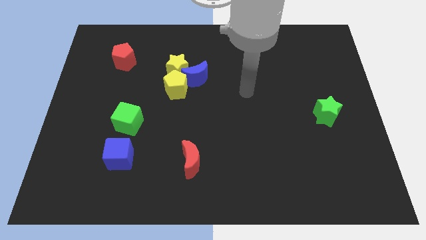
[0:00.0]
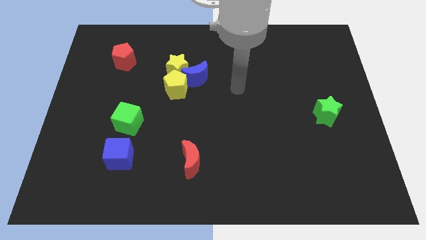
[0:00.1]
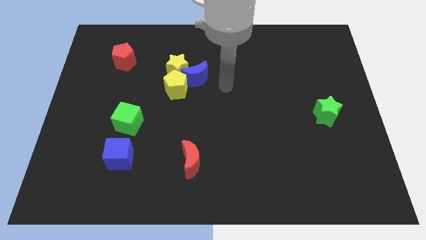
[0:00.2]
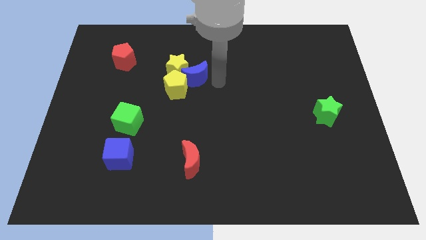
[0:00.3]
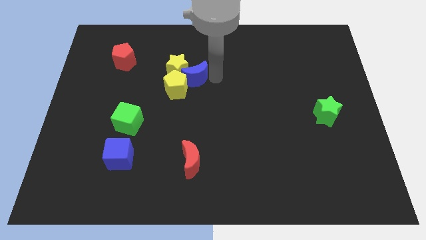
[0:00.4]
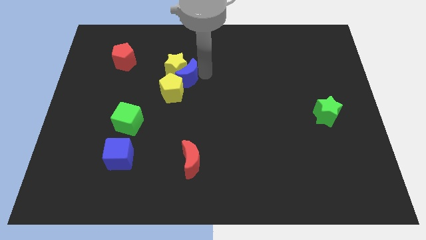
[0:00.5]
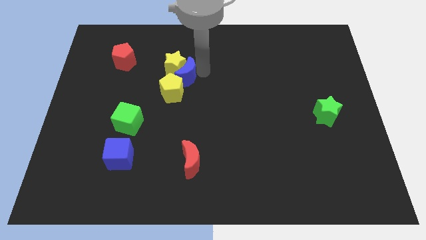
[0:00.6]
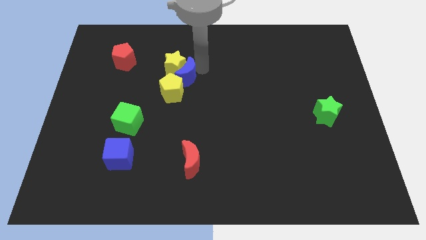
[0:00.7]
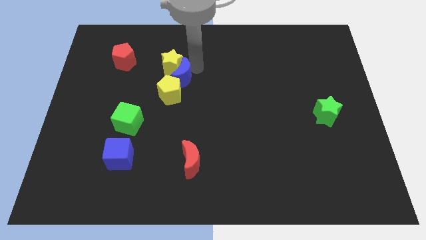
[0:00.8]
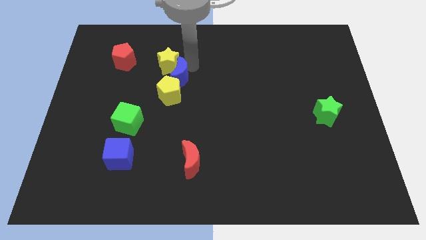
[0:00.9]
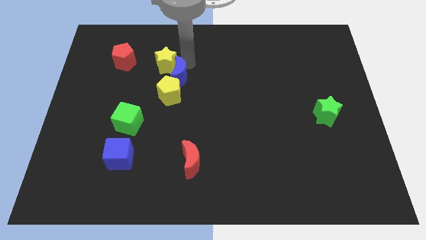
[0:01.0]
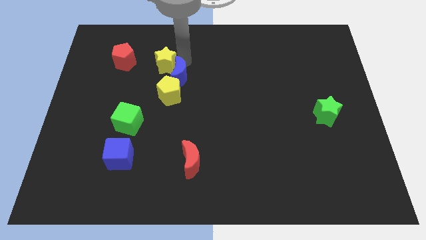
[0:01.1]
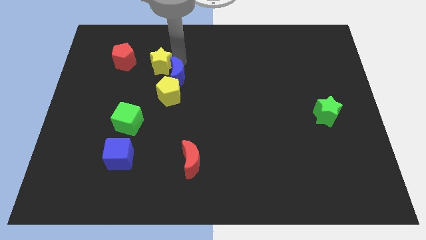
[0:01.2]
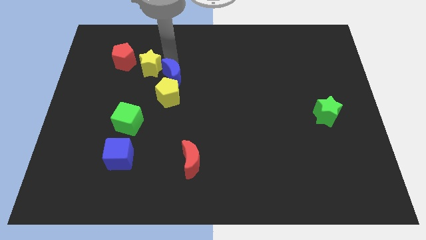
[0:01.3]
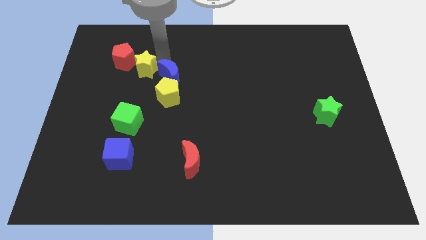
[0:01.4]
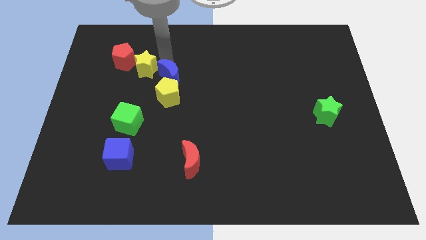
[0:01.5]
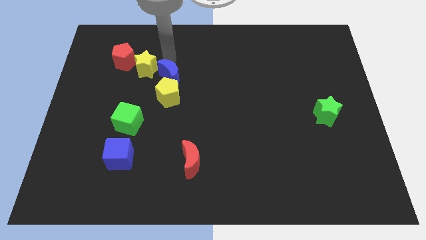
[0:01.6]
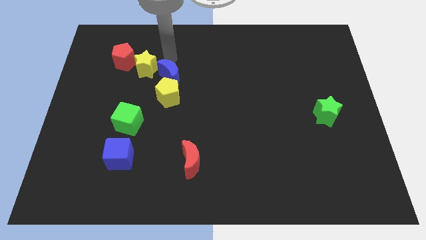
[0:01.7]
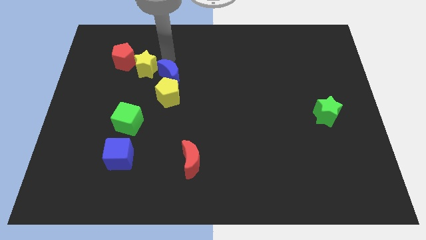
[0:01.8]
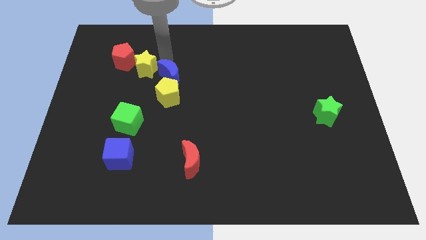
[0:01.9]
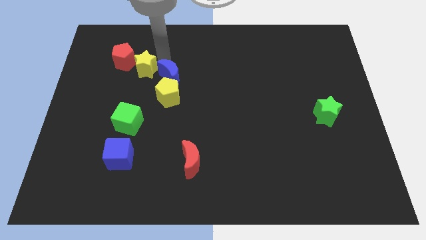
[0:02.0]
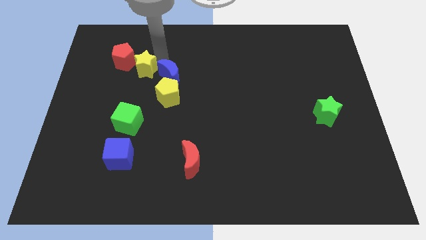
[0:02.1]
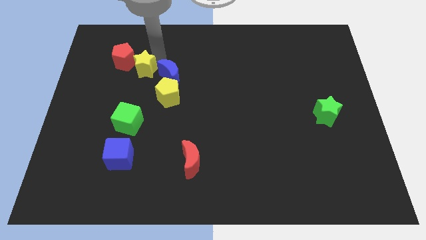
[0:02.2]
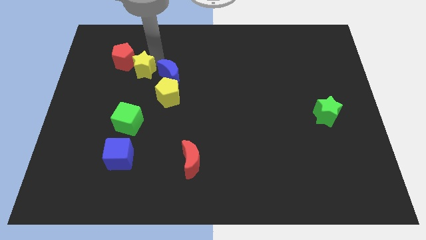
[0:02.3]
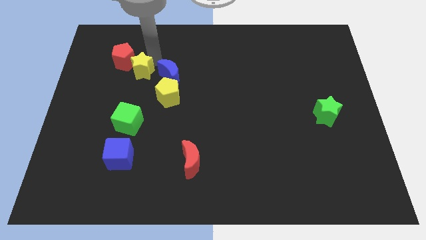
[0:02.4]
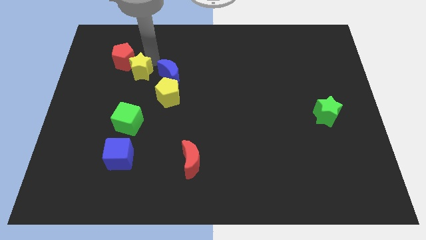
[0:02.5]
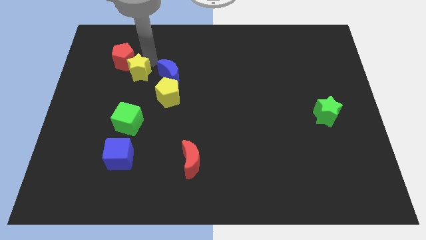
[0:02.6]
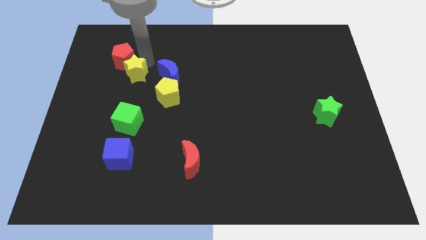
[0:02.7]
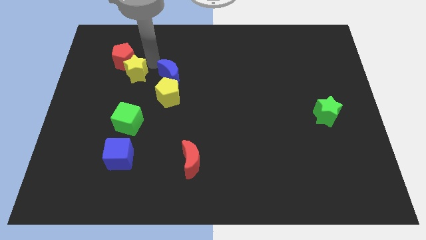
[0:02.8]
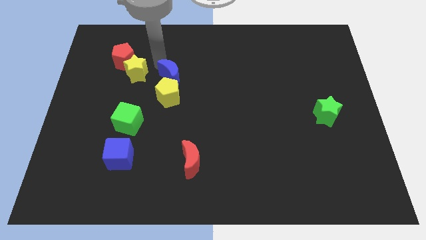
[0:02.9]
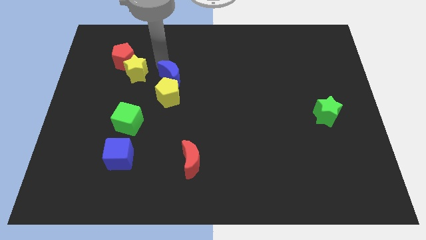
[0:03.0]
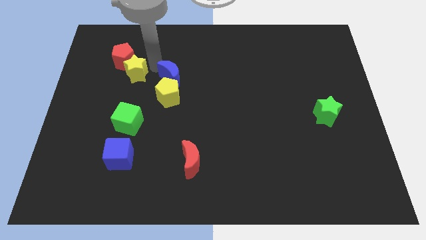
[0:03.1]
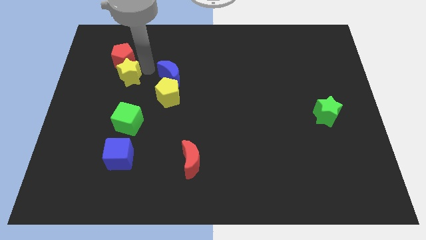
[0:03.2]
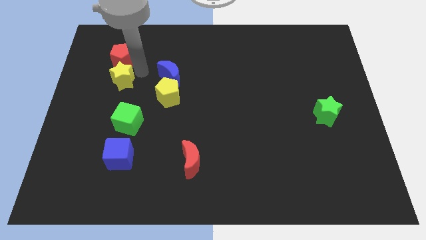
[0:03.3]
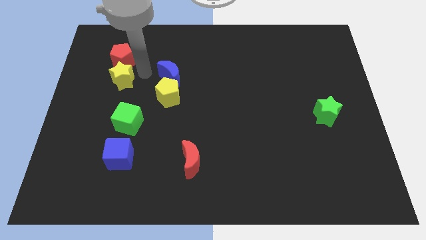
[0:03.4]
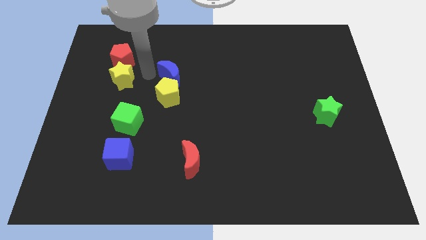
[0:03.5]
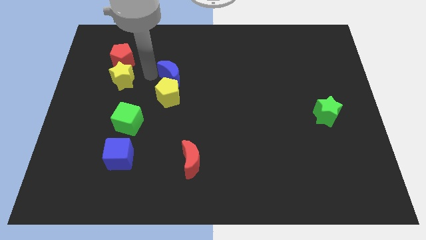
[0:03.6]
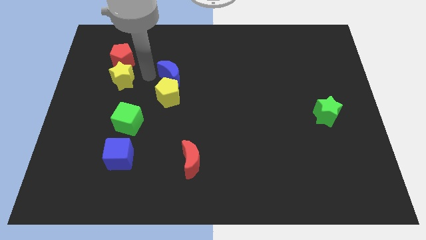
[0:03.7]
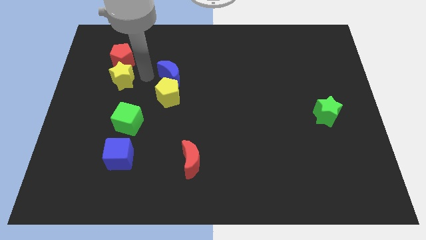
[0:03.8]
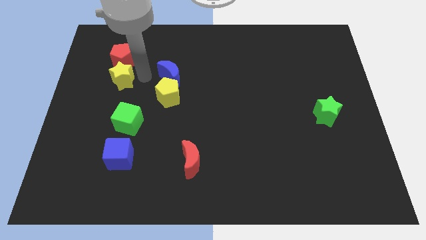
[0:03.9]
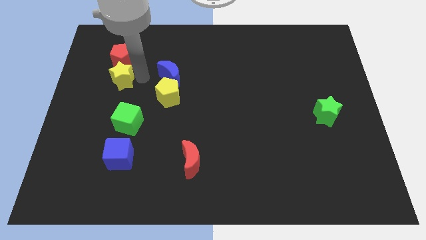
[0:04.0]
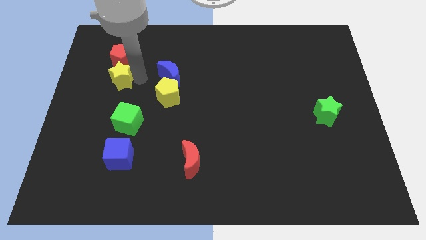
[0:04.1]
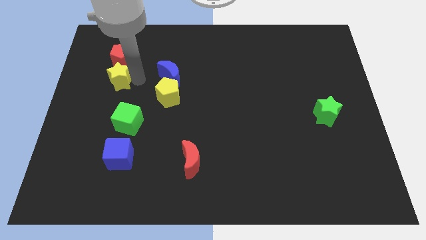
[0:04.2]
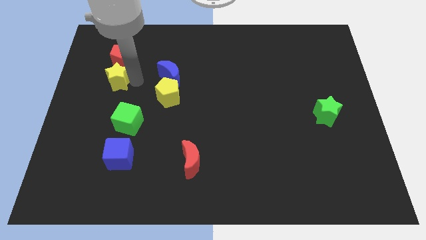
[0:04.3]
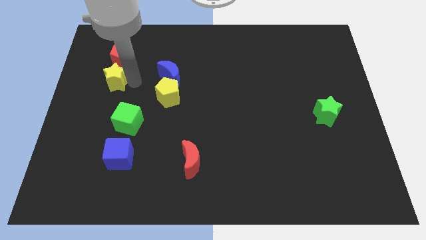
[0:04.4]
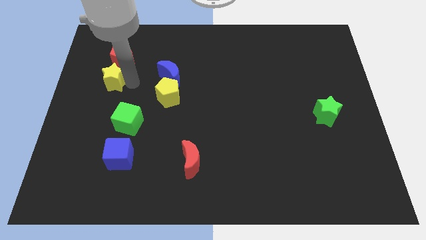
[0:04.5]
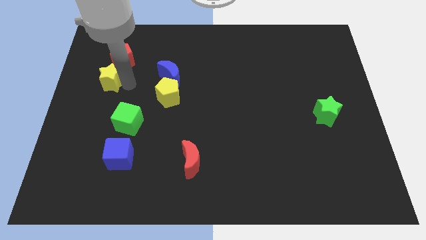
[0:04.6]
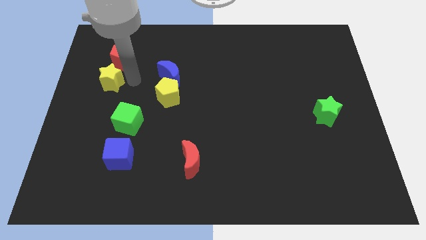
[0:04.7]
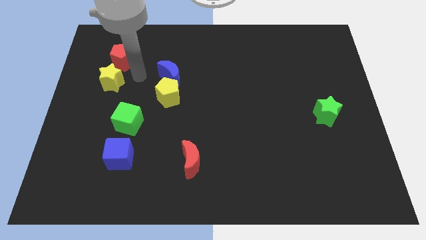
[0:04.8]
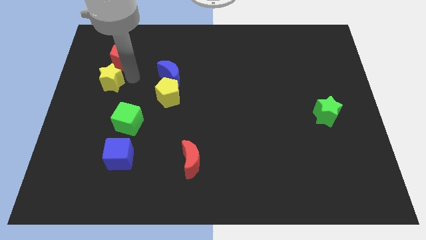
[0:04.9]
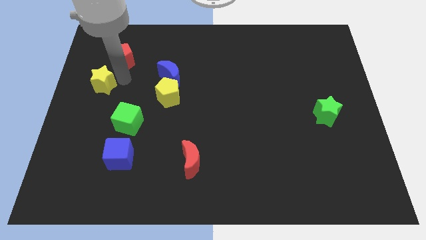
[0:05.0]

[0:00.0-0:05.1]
push the yellow star to the left side of the board

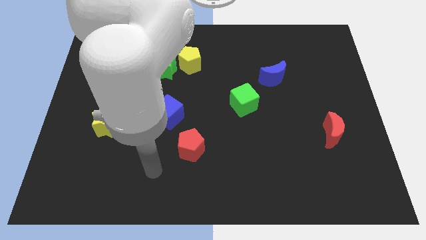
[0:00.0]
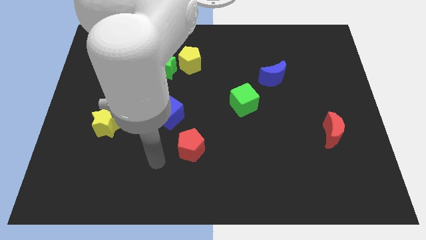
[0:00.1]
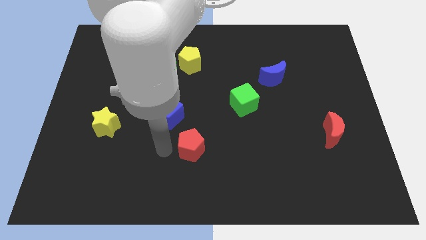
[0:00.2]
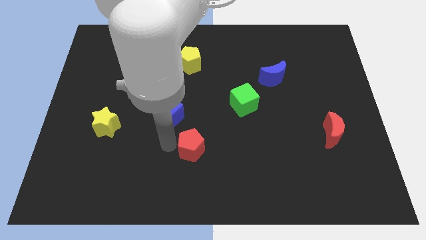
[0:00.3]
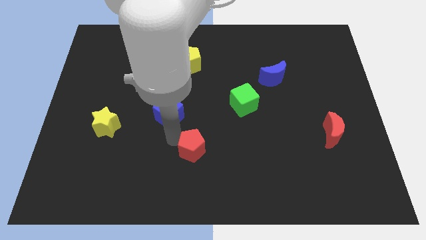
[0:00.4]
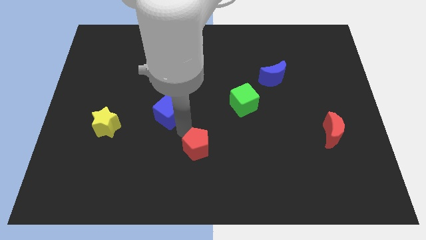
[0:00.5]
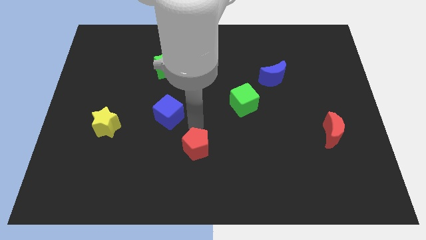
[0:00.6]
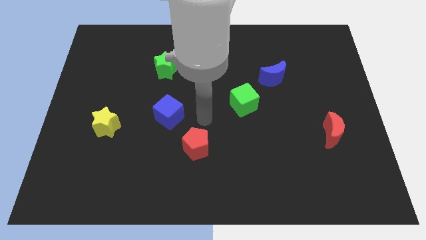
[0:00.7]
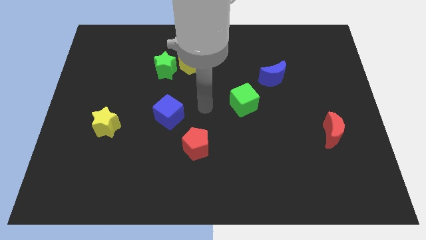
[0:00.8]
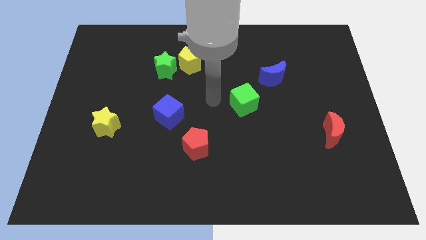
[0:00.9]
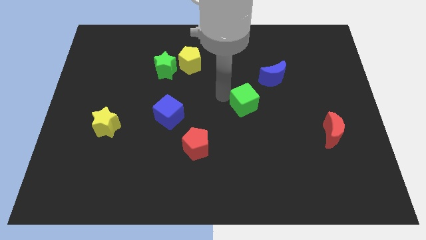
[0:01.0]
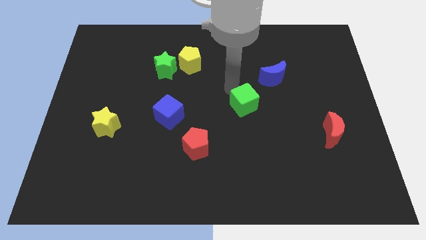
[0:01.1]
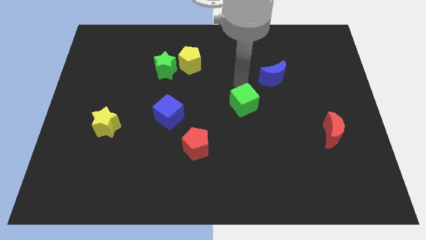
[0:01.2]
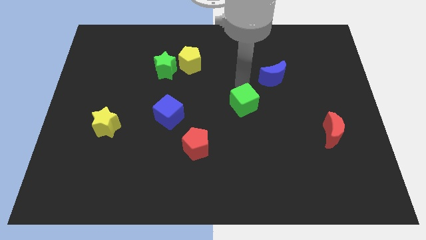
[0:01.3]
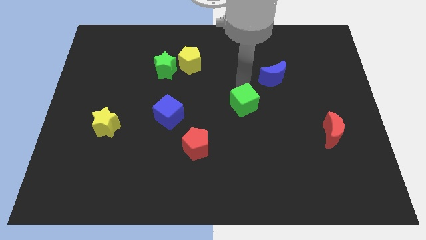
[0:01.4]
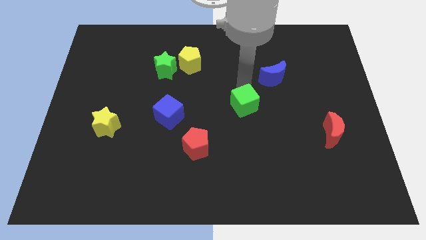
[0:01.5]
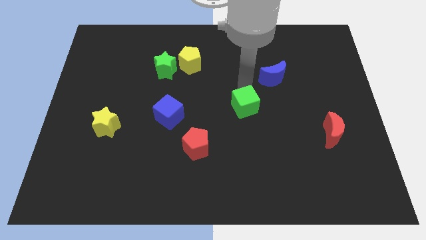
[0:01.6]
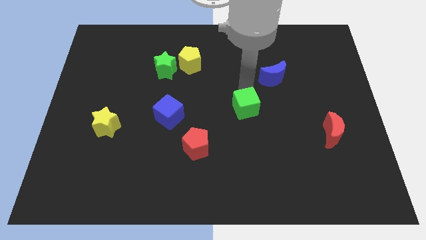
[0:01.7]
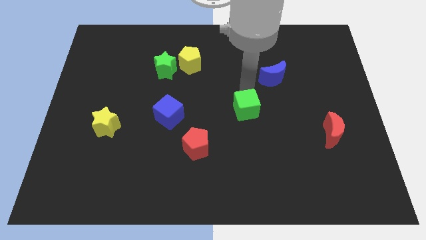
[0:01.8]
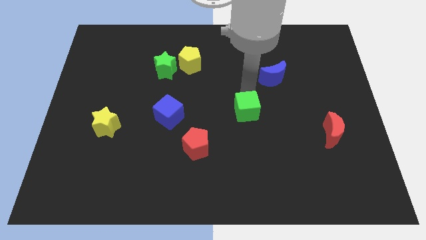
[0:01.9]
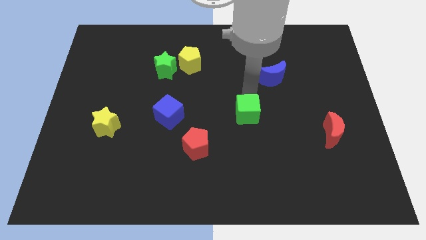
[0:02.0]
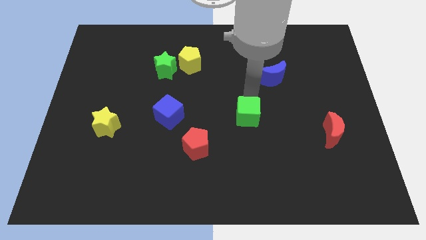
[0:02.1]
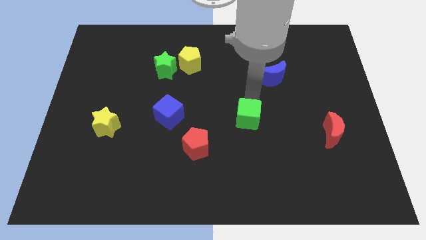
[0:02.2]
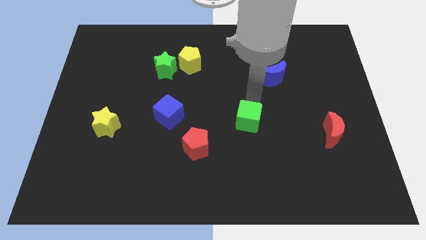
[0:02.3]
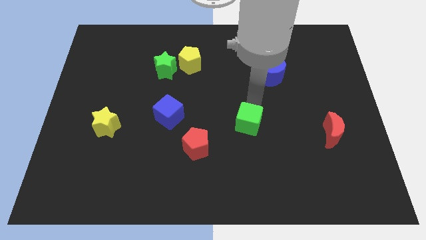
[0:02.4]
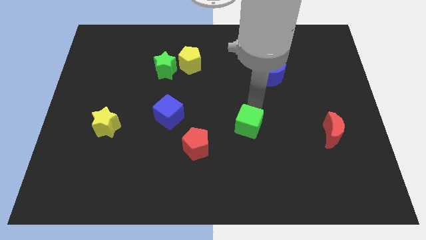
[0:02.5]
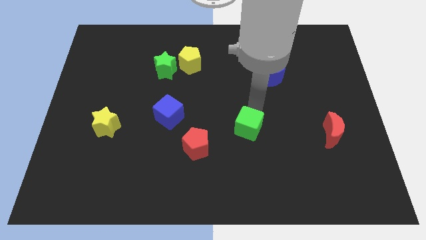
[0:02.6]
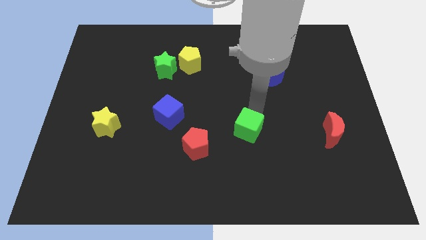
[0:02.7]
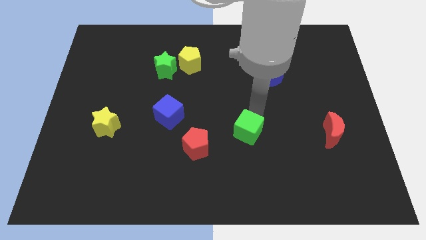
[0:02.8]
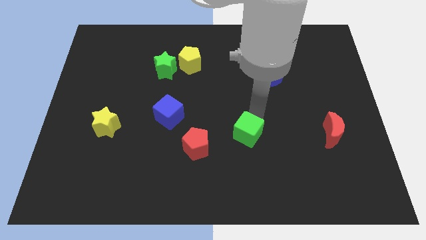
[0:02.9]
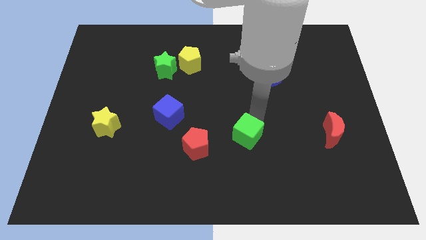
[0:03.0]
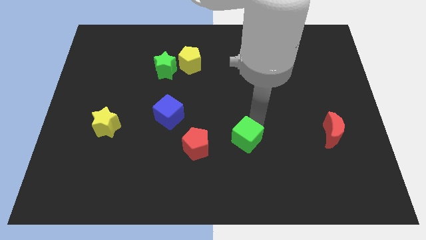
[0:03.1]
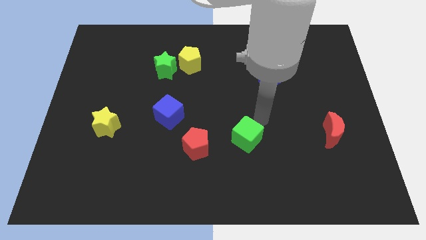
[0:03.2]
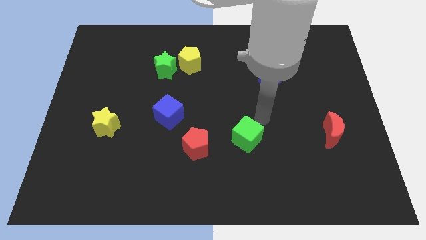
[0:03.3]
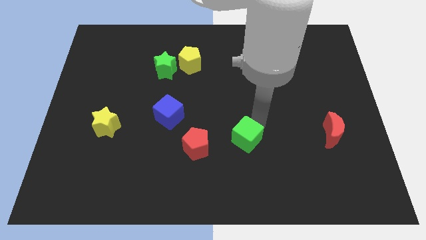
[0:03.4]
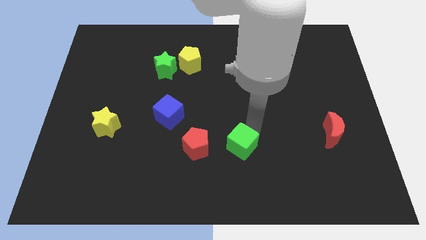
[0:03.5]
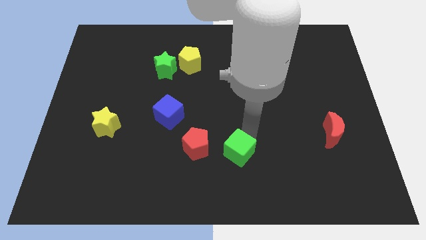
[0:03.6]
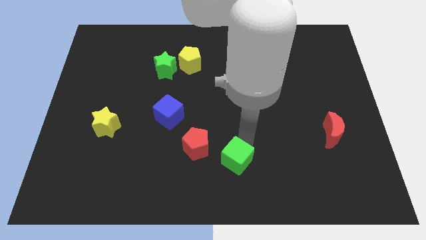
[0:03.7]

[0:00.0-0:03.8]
push the green cube to the bottom
